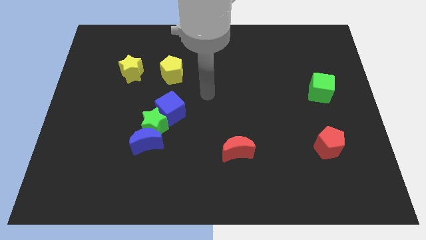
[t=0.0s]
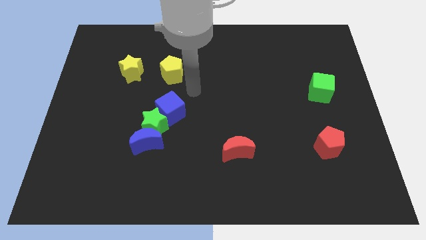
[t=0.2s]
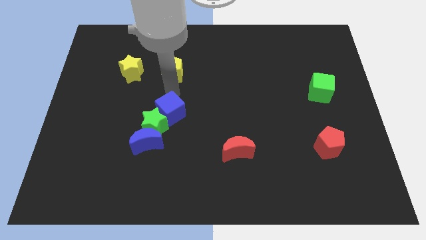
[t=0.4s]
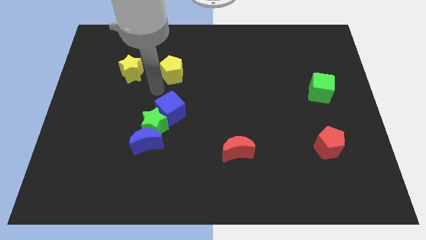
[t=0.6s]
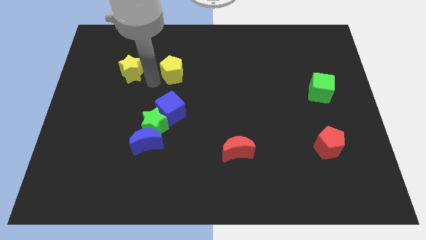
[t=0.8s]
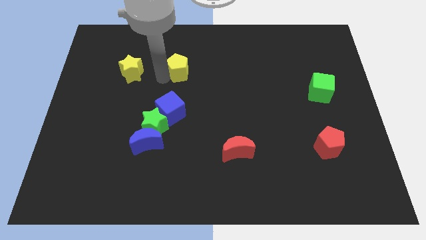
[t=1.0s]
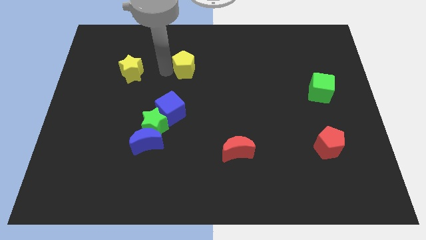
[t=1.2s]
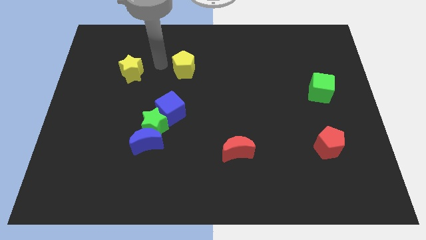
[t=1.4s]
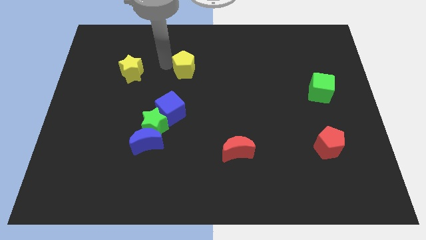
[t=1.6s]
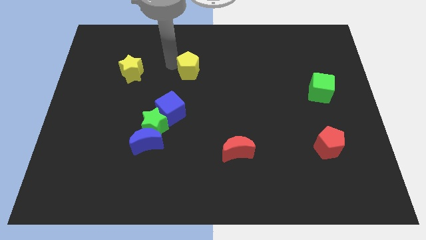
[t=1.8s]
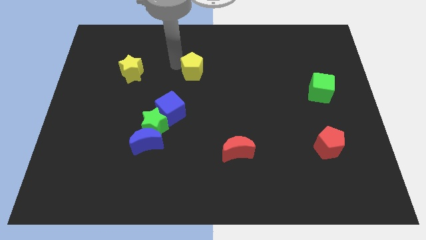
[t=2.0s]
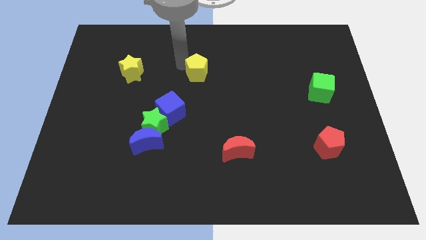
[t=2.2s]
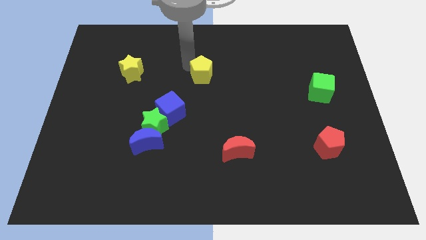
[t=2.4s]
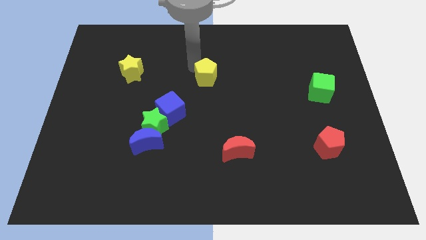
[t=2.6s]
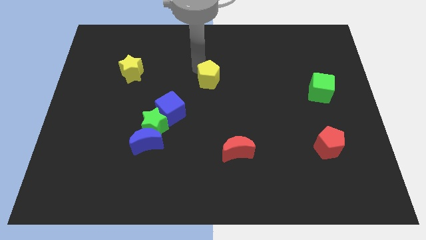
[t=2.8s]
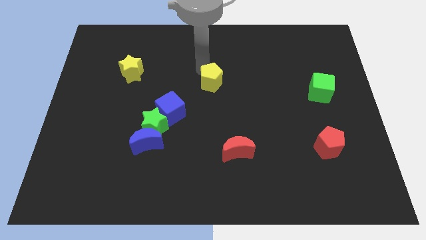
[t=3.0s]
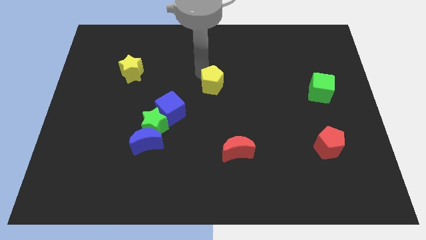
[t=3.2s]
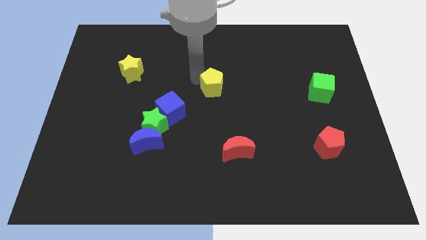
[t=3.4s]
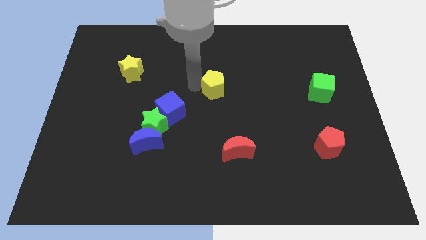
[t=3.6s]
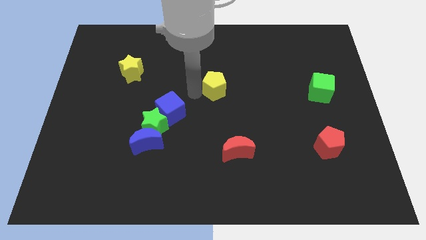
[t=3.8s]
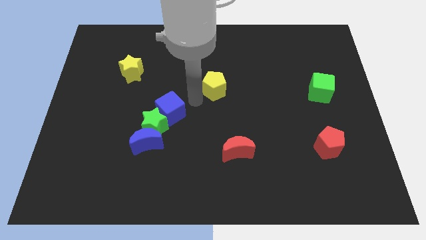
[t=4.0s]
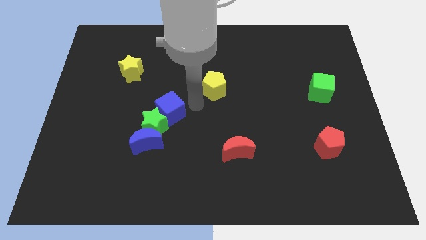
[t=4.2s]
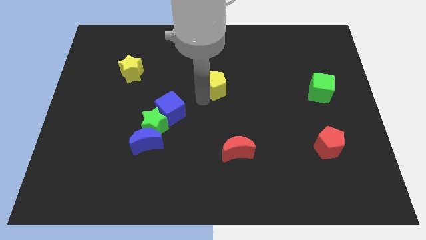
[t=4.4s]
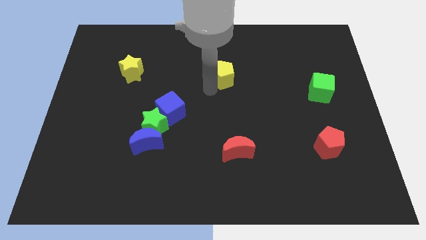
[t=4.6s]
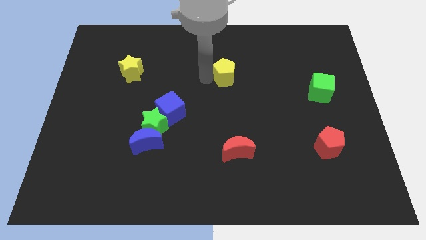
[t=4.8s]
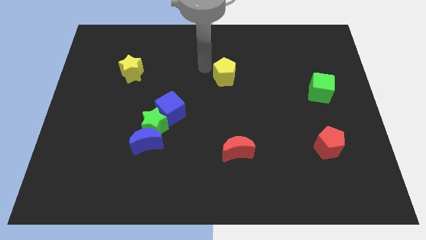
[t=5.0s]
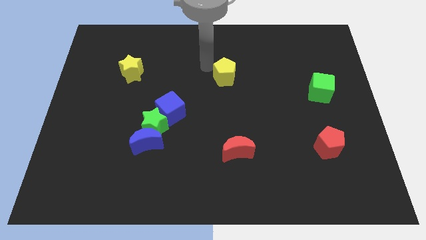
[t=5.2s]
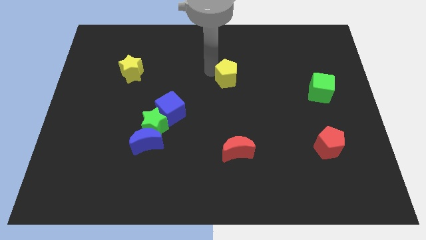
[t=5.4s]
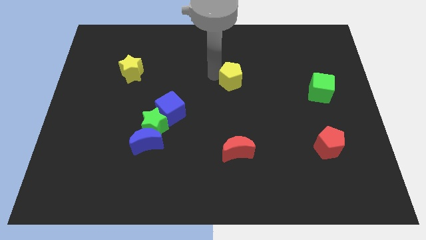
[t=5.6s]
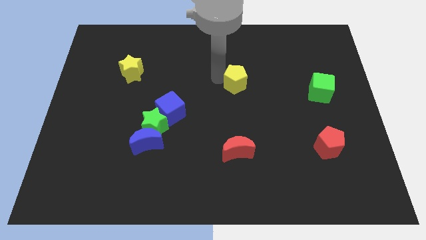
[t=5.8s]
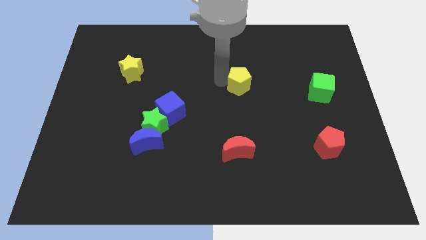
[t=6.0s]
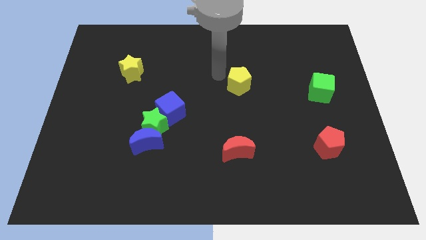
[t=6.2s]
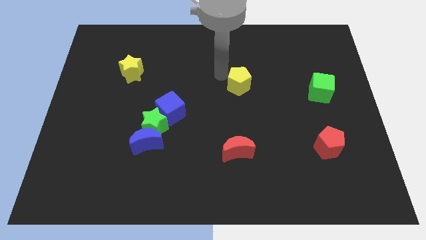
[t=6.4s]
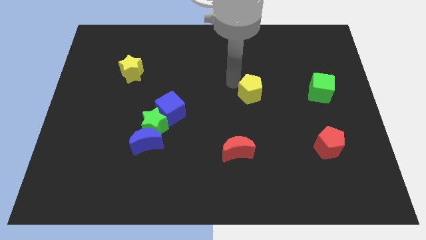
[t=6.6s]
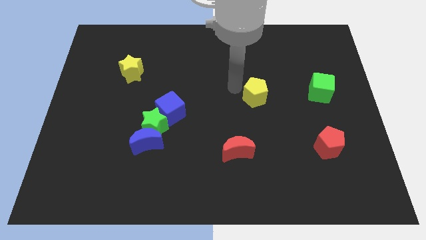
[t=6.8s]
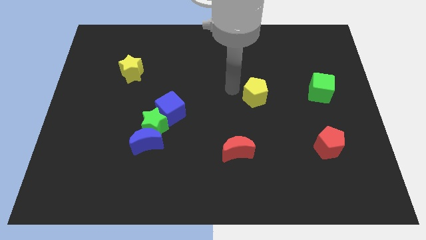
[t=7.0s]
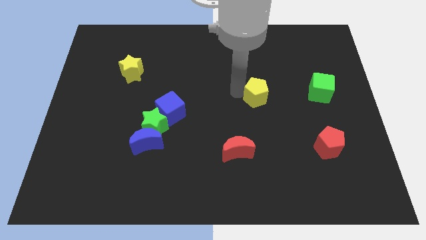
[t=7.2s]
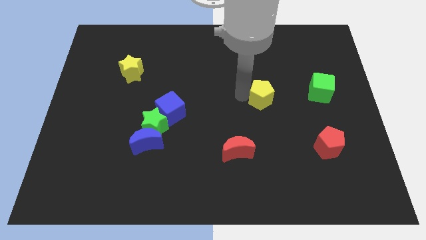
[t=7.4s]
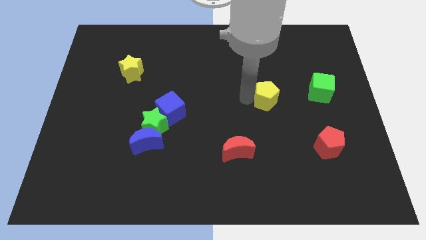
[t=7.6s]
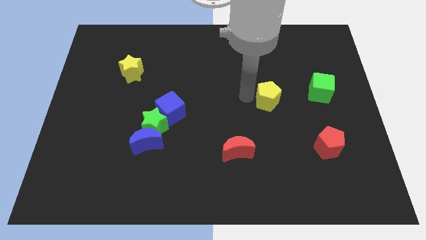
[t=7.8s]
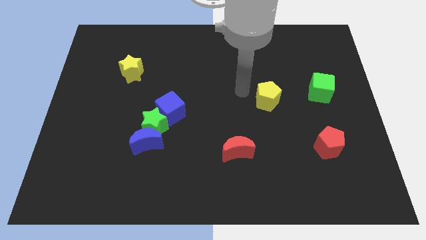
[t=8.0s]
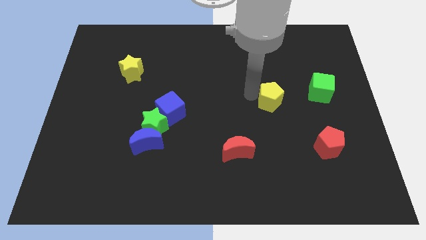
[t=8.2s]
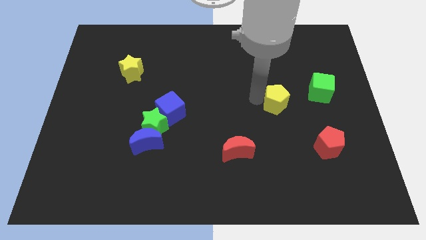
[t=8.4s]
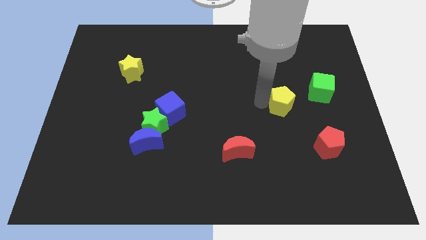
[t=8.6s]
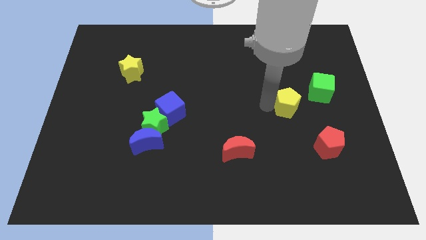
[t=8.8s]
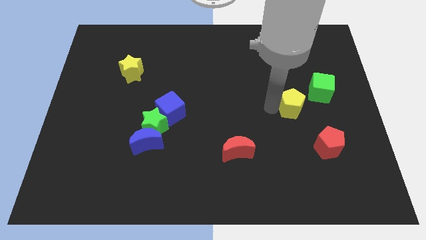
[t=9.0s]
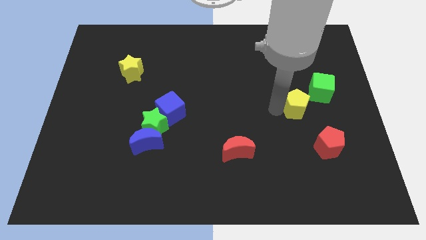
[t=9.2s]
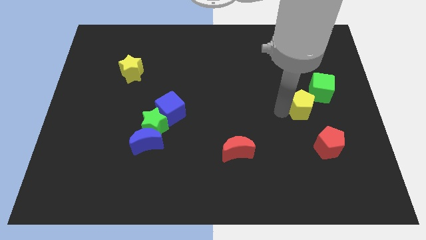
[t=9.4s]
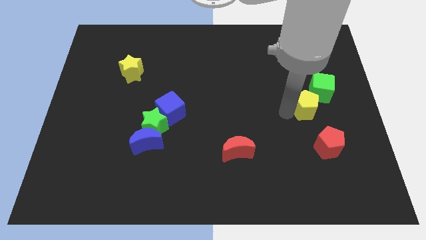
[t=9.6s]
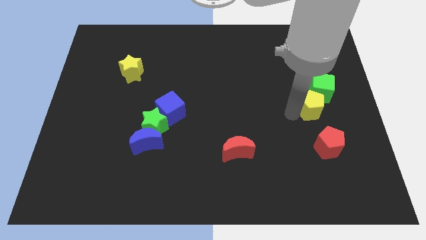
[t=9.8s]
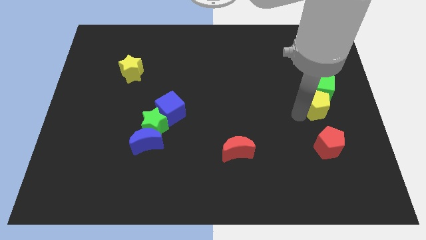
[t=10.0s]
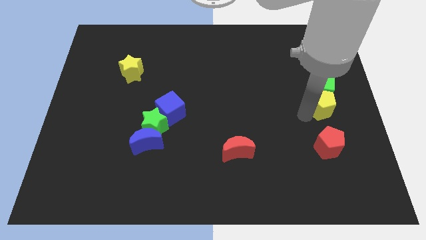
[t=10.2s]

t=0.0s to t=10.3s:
move the yellow pentagon to the right side

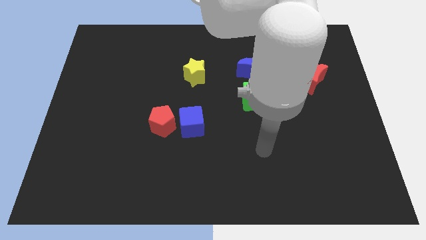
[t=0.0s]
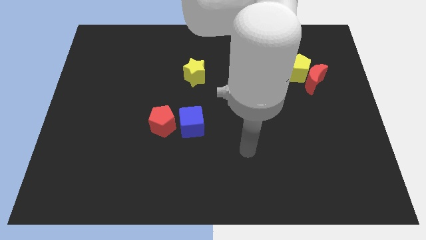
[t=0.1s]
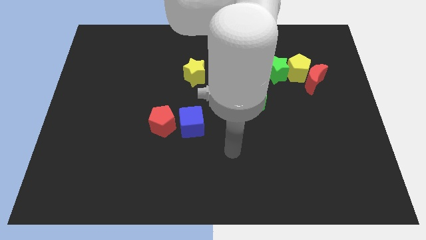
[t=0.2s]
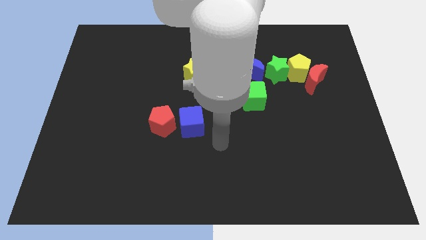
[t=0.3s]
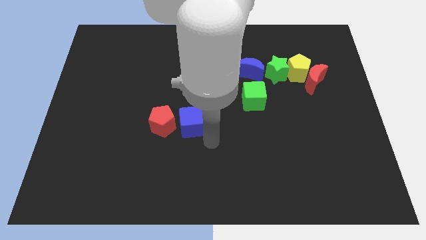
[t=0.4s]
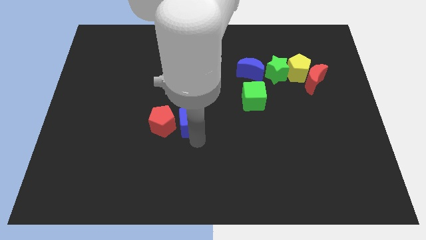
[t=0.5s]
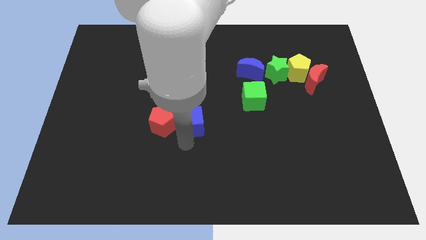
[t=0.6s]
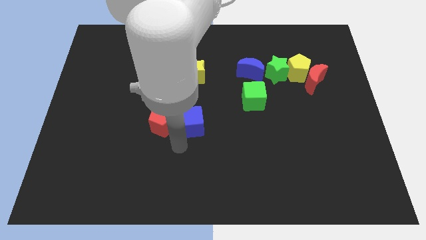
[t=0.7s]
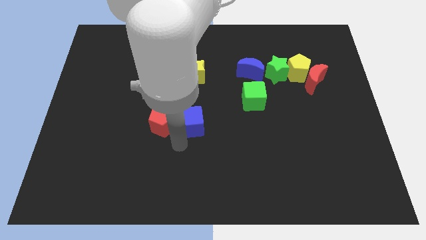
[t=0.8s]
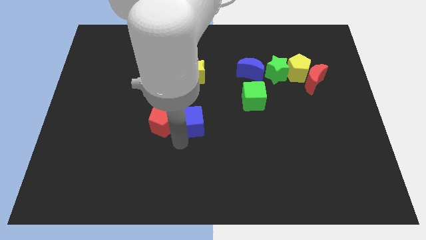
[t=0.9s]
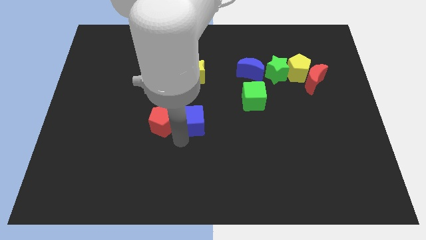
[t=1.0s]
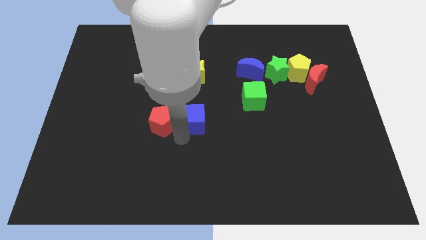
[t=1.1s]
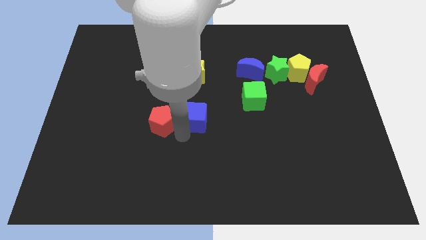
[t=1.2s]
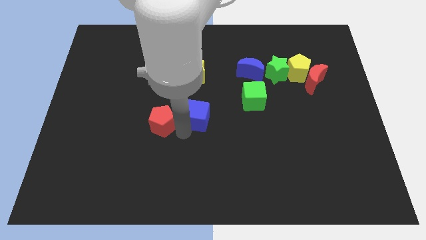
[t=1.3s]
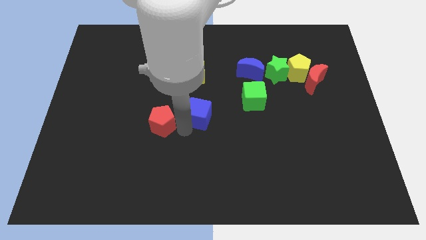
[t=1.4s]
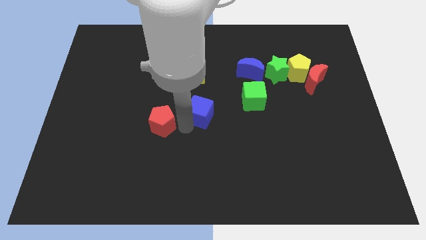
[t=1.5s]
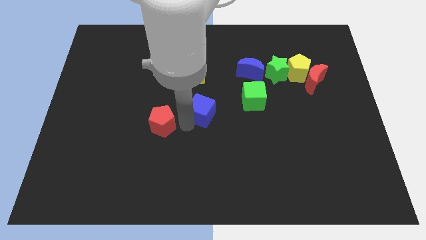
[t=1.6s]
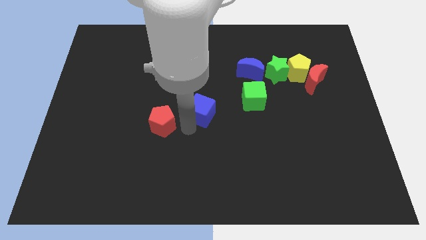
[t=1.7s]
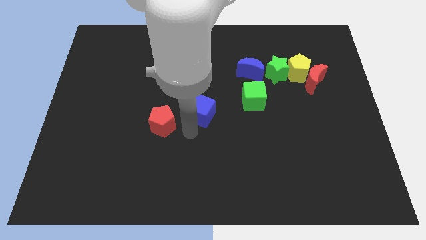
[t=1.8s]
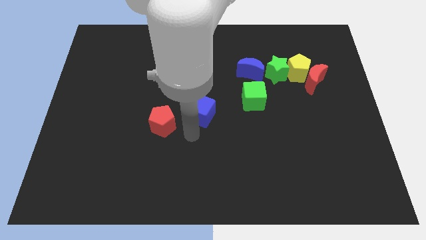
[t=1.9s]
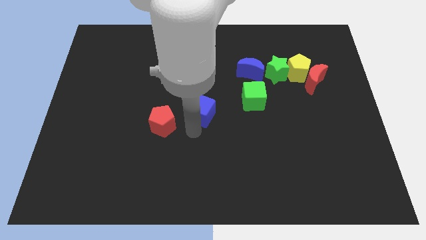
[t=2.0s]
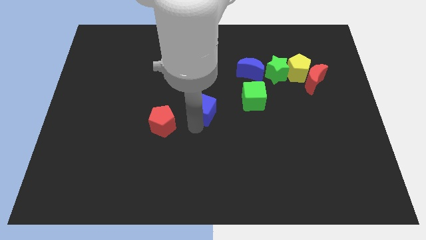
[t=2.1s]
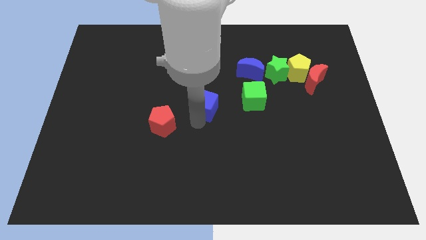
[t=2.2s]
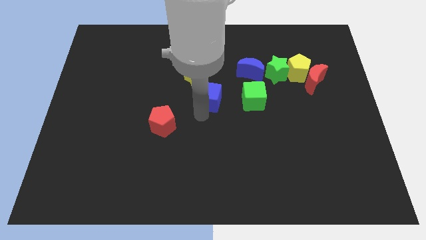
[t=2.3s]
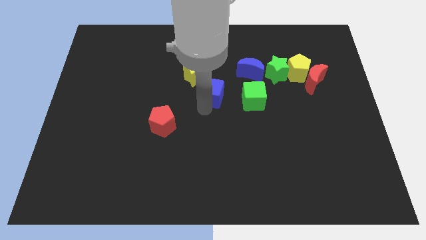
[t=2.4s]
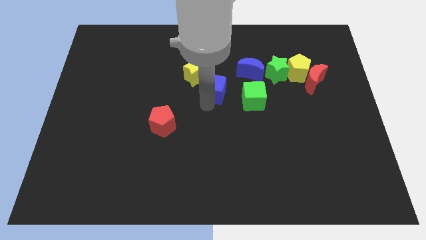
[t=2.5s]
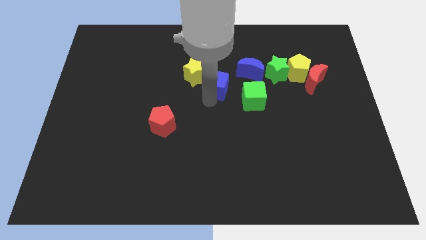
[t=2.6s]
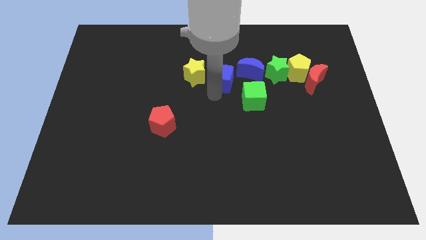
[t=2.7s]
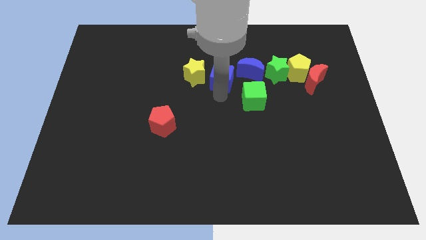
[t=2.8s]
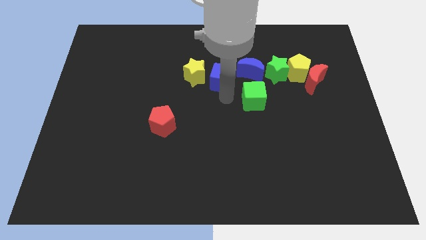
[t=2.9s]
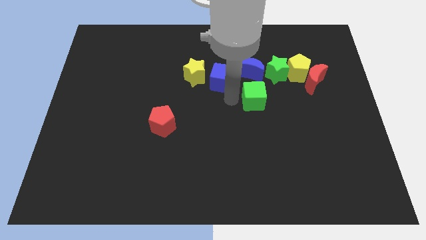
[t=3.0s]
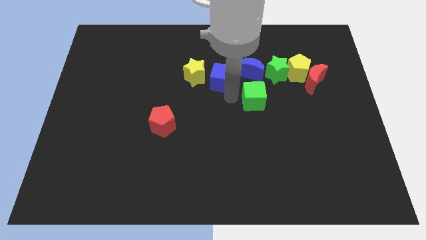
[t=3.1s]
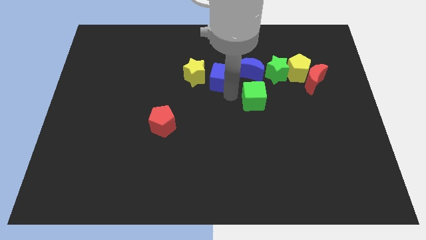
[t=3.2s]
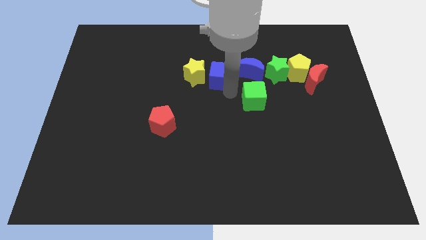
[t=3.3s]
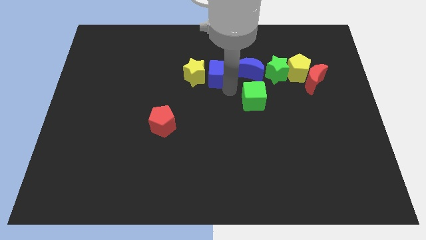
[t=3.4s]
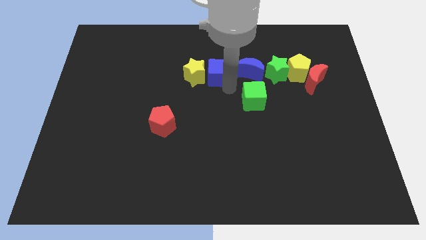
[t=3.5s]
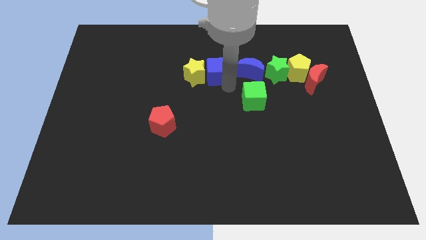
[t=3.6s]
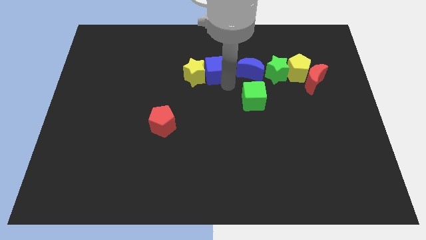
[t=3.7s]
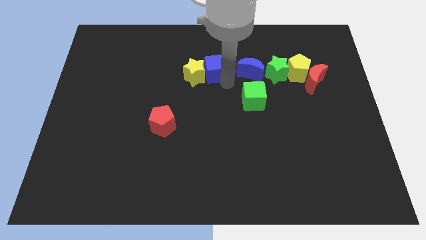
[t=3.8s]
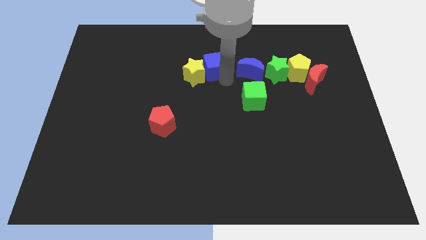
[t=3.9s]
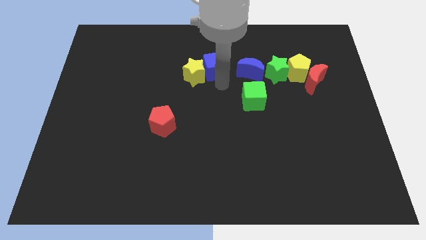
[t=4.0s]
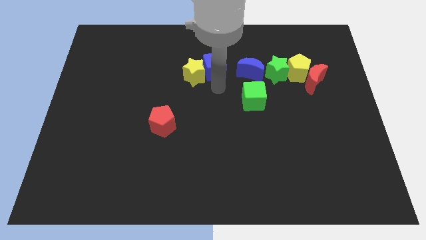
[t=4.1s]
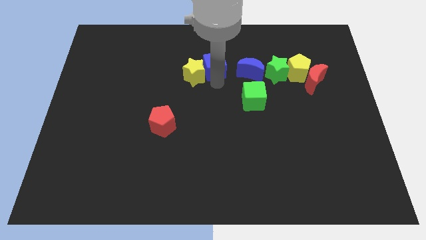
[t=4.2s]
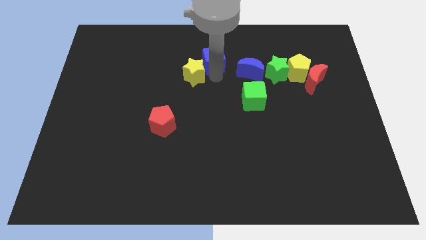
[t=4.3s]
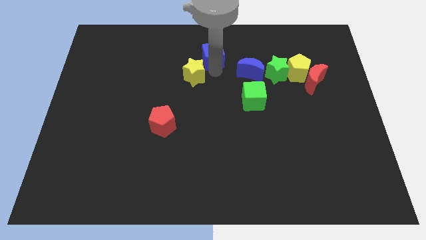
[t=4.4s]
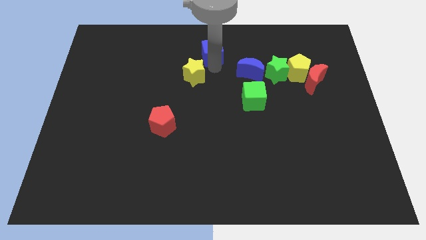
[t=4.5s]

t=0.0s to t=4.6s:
move the blue cube to the top side
